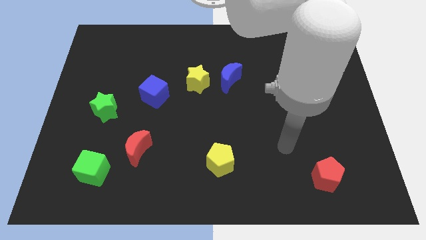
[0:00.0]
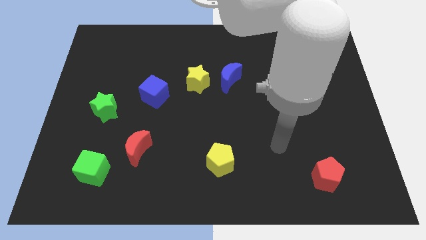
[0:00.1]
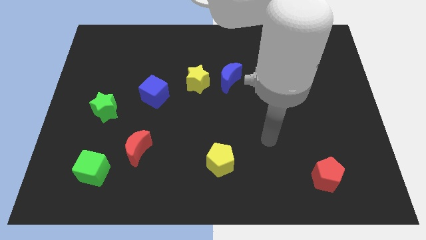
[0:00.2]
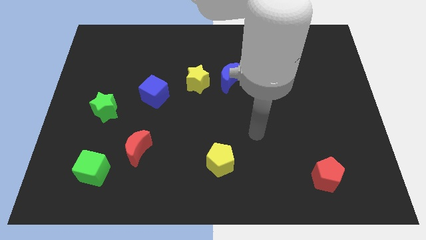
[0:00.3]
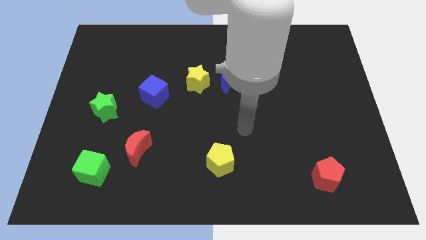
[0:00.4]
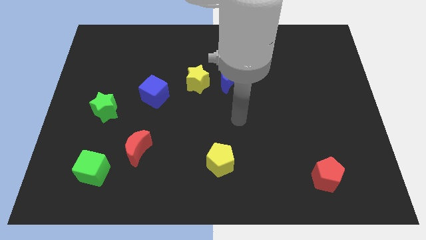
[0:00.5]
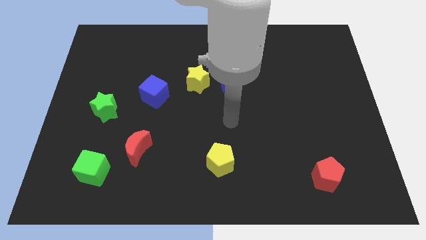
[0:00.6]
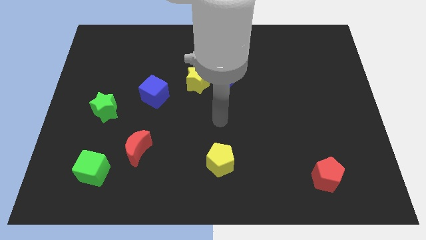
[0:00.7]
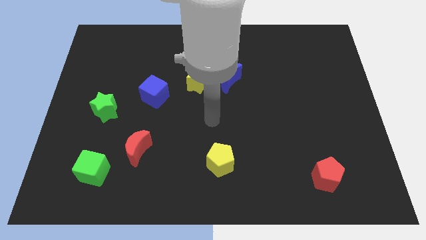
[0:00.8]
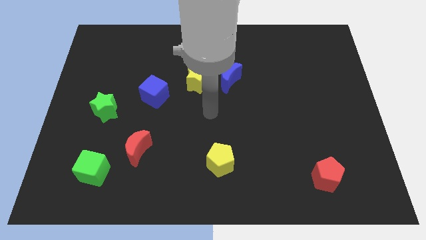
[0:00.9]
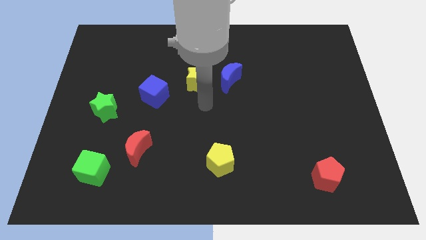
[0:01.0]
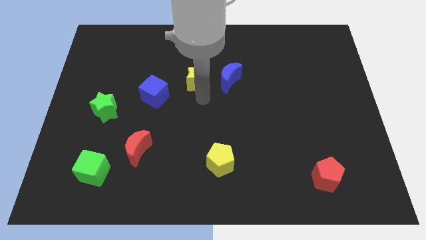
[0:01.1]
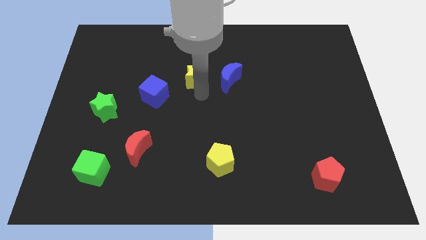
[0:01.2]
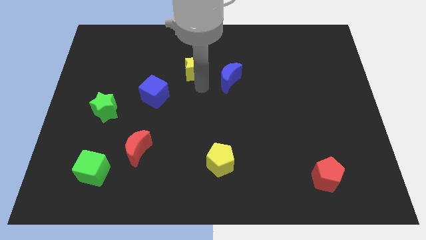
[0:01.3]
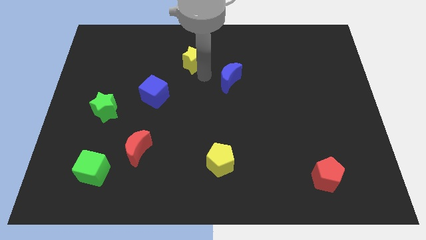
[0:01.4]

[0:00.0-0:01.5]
separate the blue moon from the yellow star

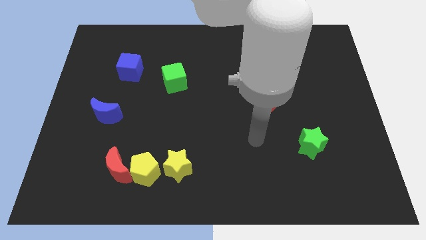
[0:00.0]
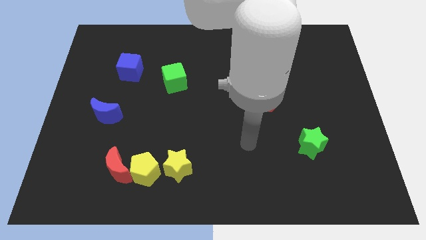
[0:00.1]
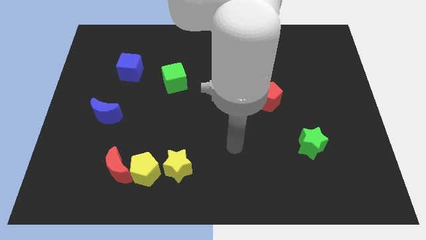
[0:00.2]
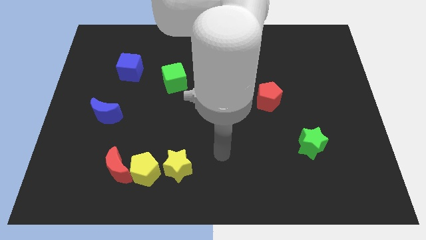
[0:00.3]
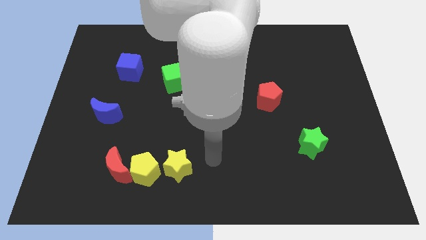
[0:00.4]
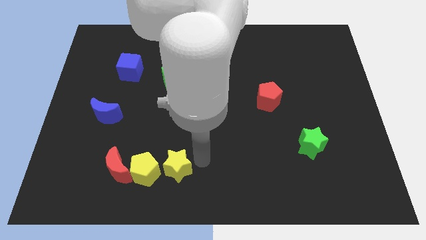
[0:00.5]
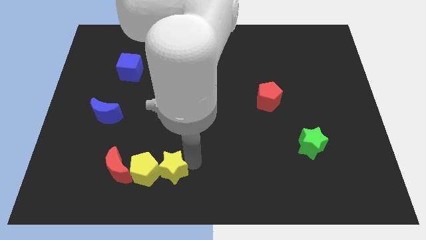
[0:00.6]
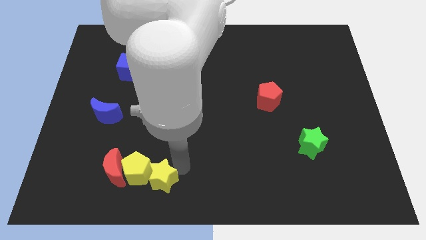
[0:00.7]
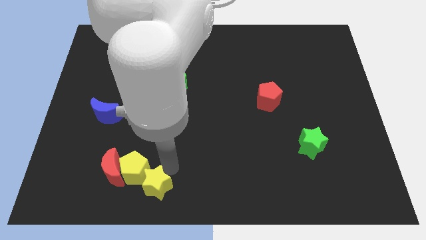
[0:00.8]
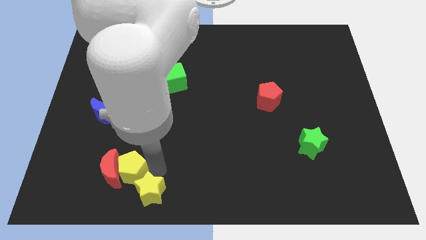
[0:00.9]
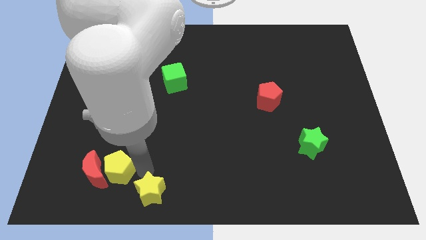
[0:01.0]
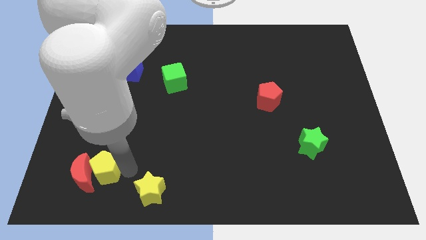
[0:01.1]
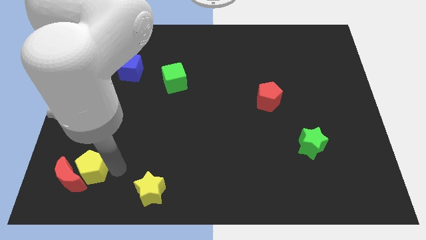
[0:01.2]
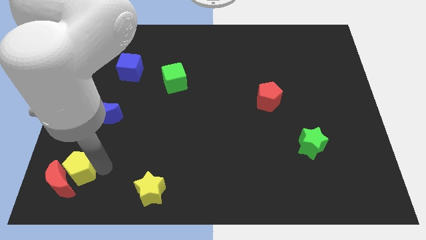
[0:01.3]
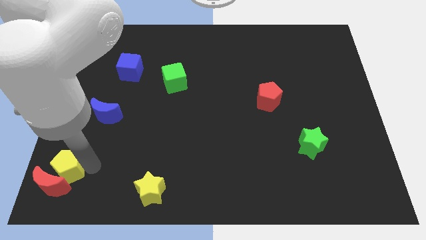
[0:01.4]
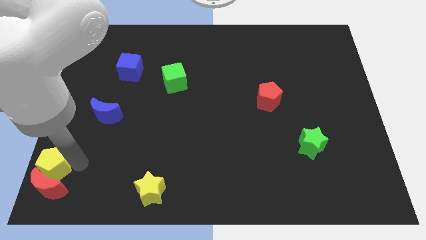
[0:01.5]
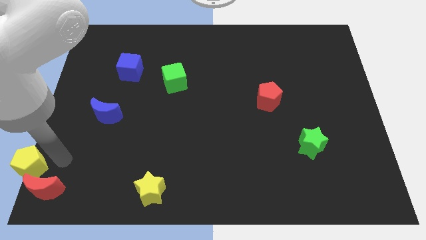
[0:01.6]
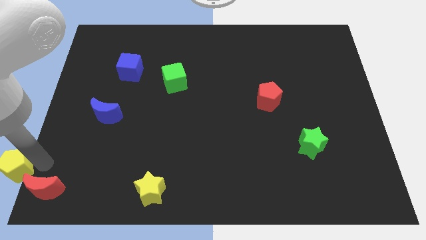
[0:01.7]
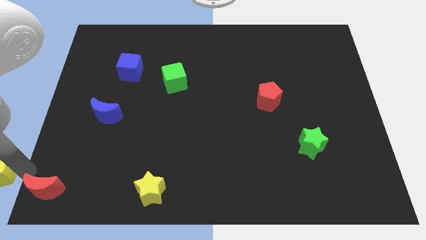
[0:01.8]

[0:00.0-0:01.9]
separate the red moon from the yellow pentagon

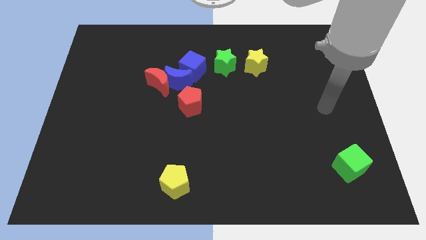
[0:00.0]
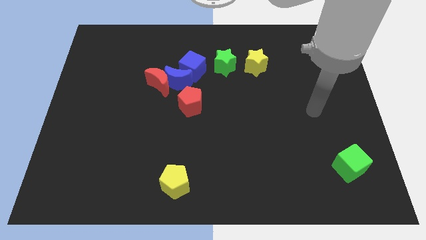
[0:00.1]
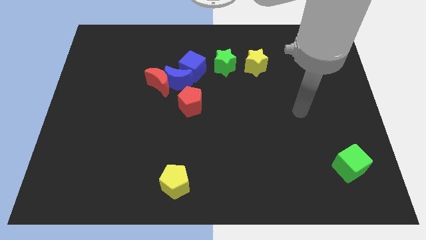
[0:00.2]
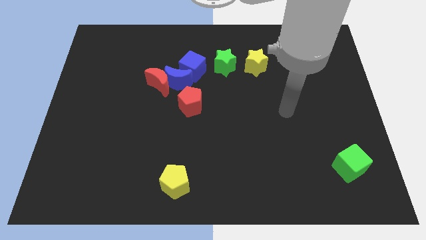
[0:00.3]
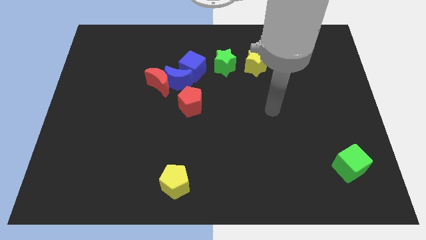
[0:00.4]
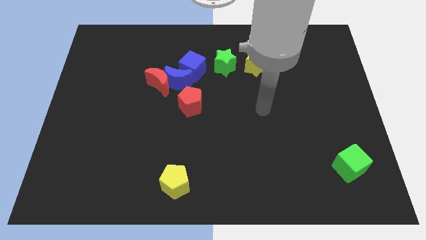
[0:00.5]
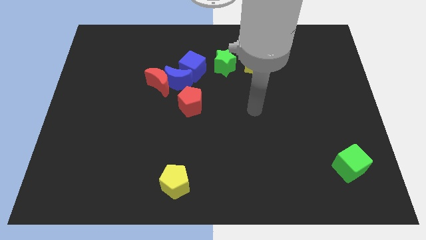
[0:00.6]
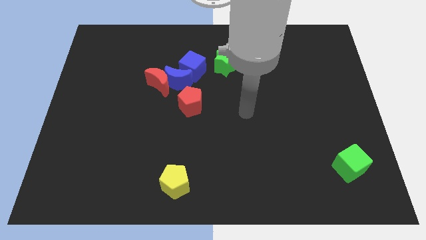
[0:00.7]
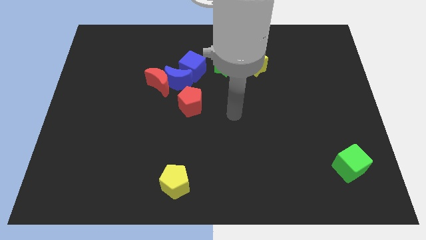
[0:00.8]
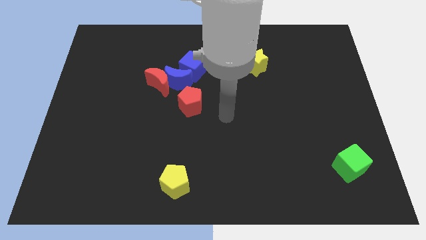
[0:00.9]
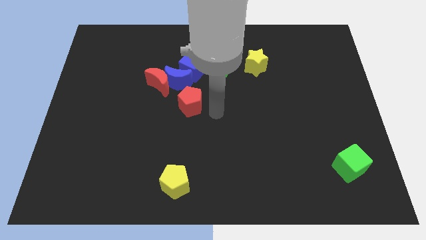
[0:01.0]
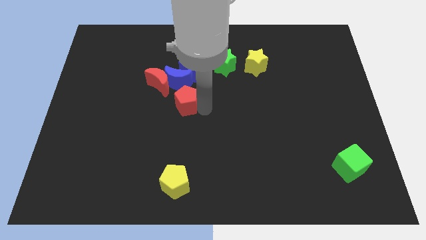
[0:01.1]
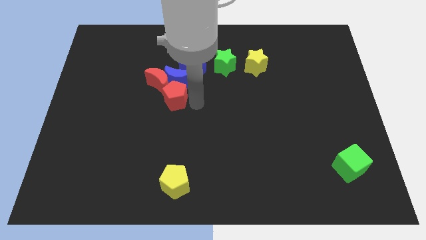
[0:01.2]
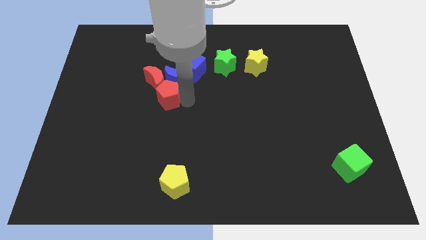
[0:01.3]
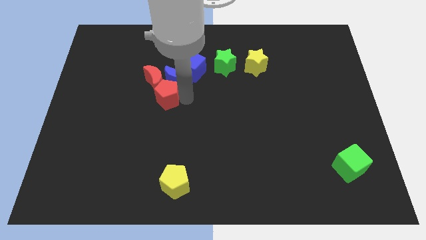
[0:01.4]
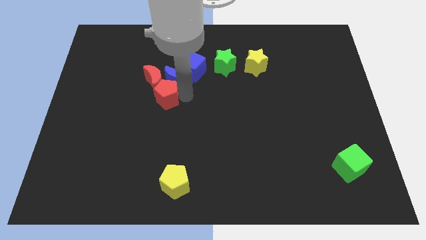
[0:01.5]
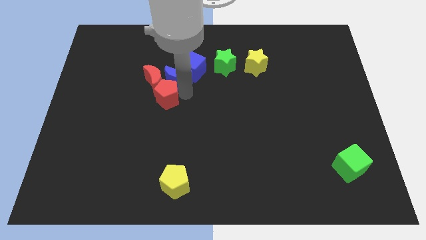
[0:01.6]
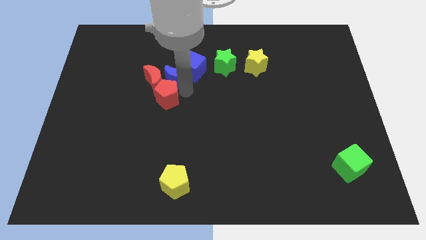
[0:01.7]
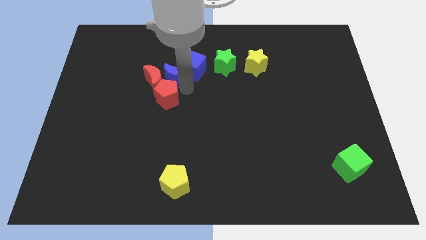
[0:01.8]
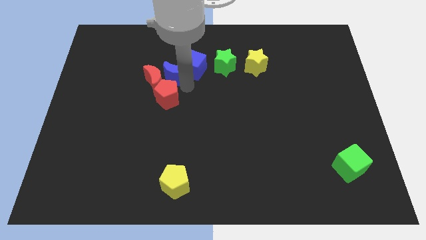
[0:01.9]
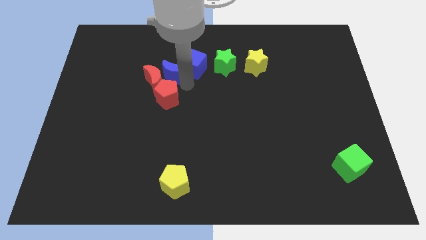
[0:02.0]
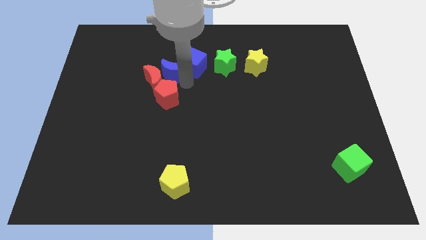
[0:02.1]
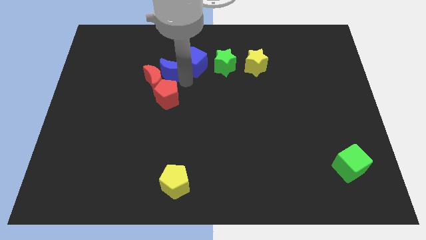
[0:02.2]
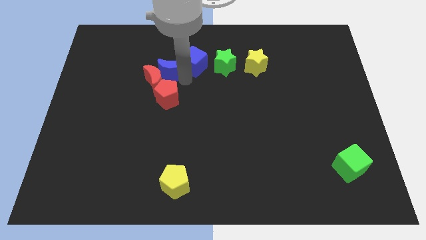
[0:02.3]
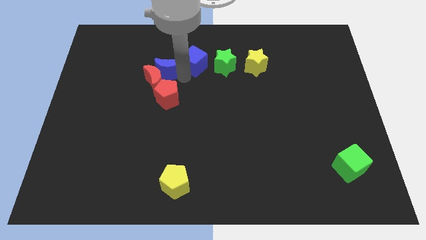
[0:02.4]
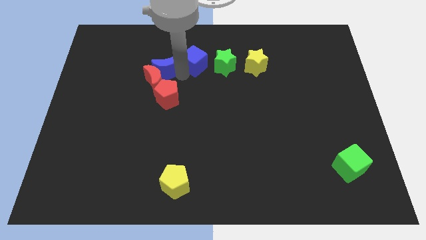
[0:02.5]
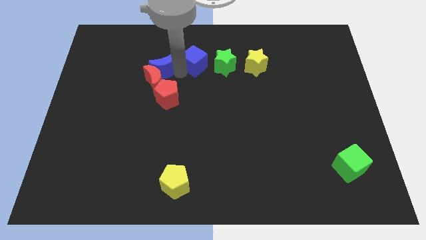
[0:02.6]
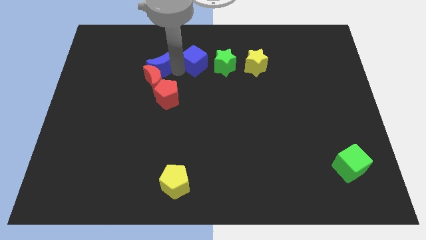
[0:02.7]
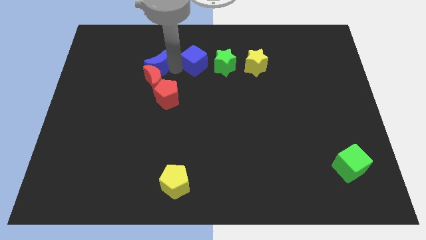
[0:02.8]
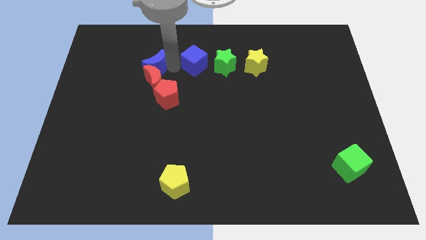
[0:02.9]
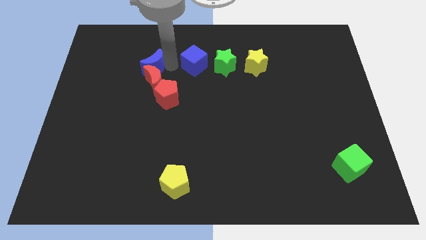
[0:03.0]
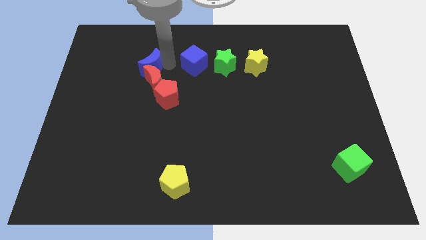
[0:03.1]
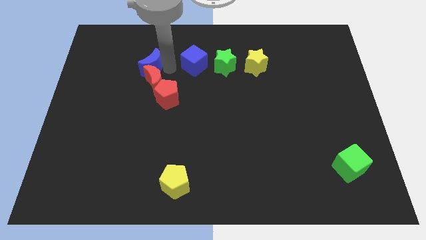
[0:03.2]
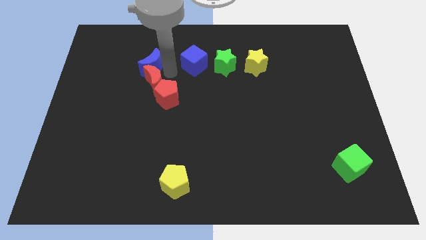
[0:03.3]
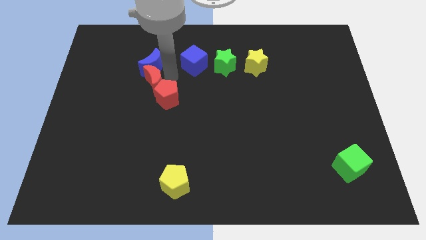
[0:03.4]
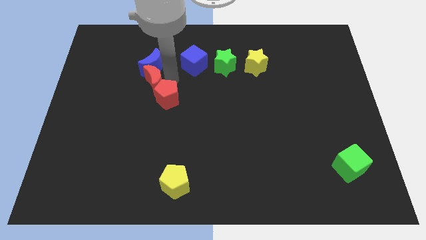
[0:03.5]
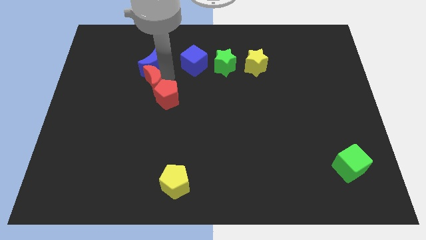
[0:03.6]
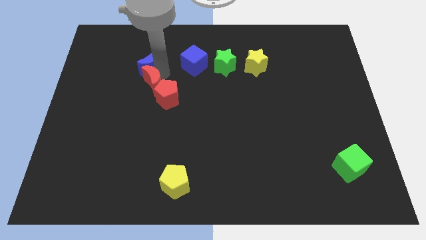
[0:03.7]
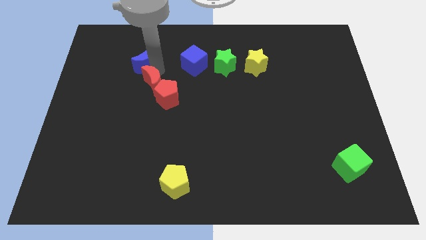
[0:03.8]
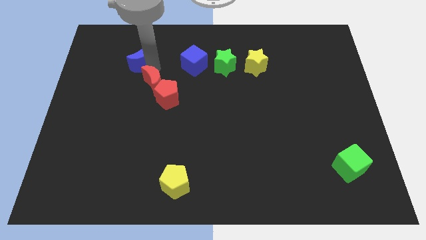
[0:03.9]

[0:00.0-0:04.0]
pull the blue moon apart from the red moon, blue cube, and red pentagon

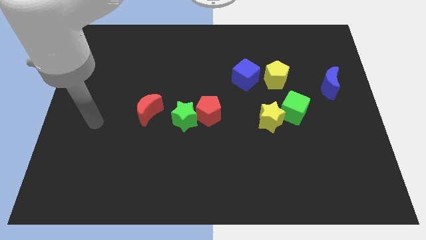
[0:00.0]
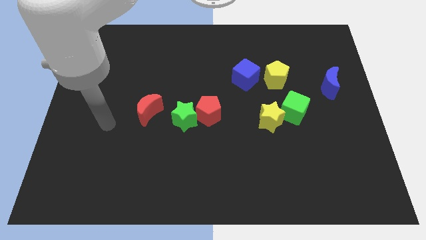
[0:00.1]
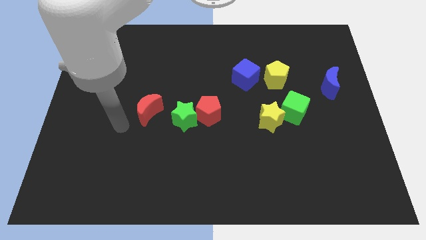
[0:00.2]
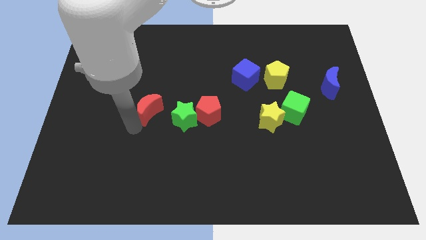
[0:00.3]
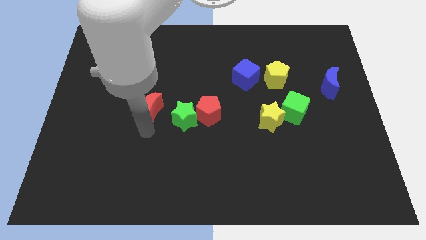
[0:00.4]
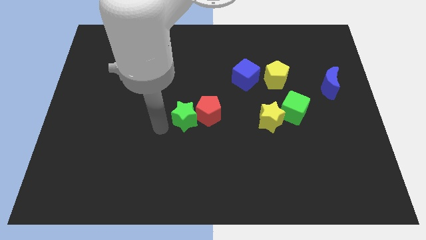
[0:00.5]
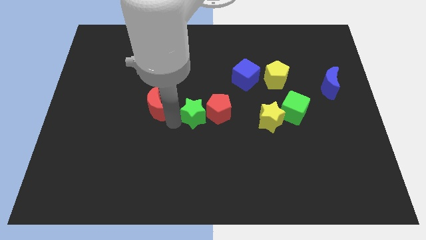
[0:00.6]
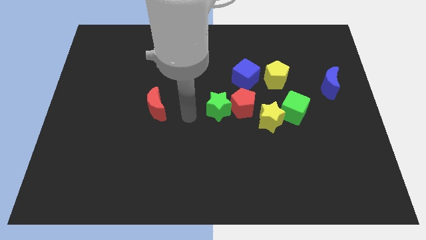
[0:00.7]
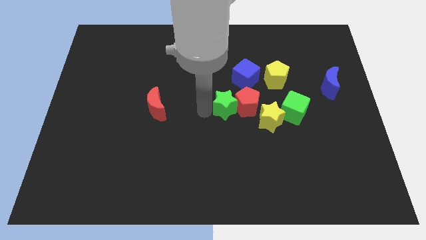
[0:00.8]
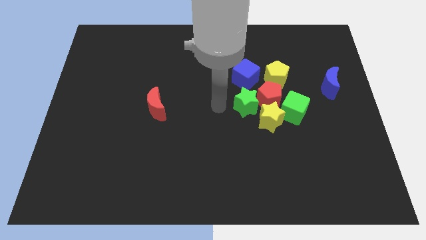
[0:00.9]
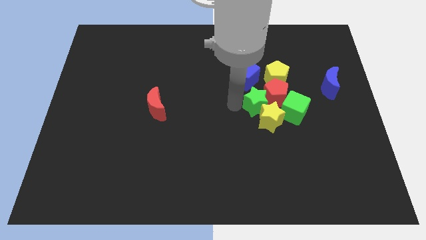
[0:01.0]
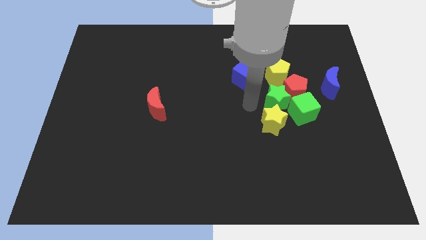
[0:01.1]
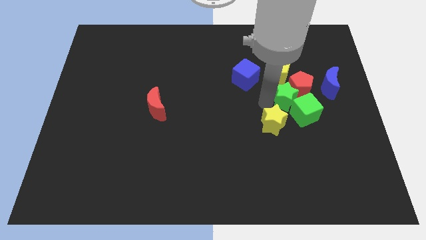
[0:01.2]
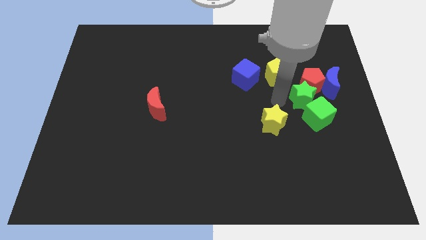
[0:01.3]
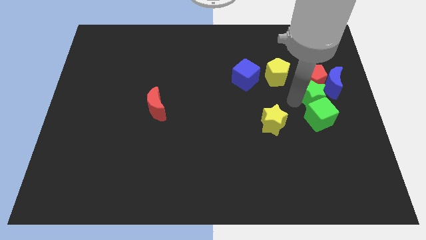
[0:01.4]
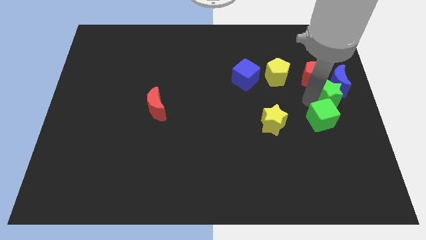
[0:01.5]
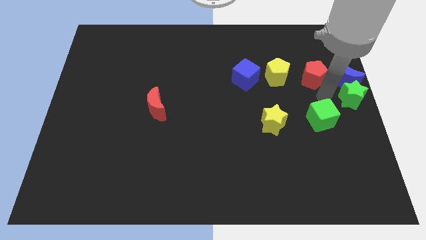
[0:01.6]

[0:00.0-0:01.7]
separate the red pentagon from the green star
